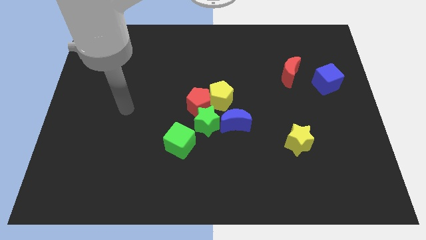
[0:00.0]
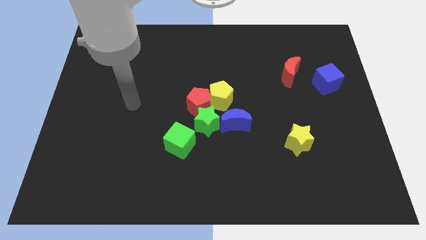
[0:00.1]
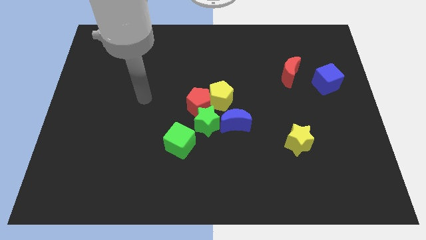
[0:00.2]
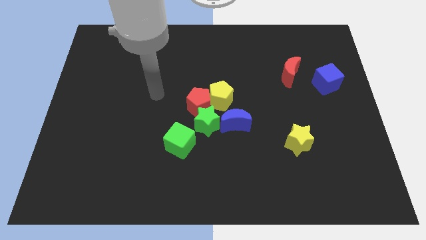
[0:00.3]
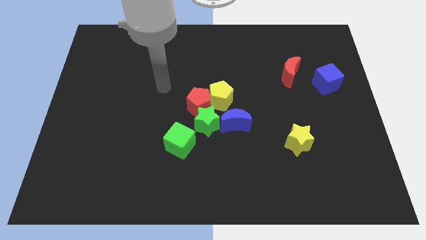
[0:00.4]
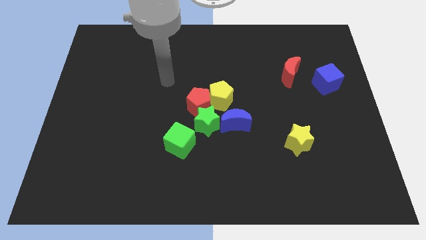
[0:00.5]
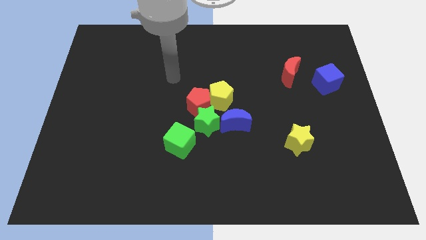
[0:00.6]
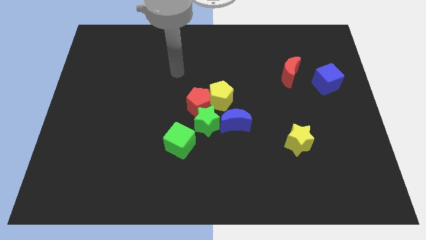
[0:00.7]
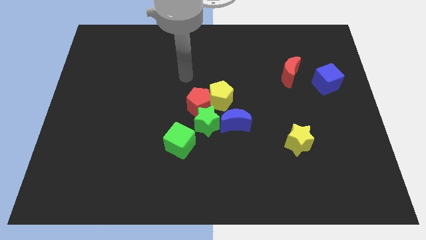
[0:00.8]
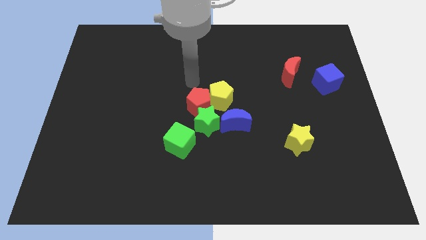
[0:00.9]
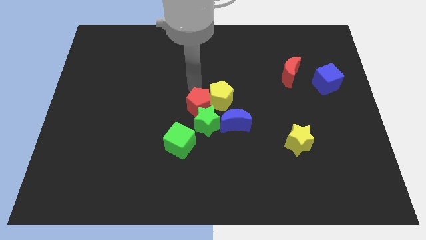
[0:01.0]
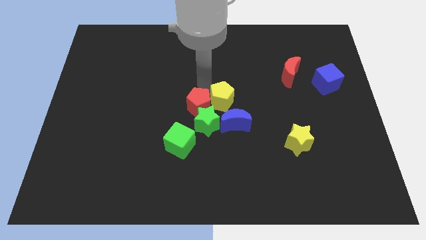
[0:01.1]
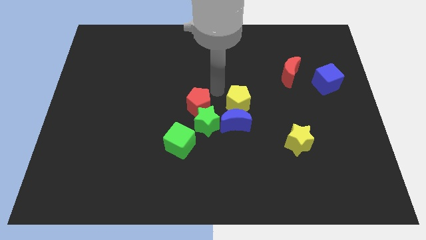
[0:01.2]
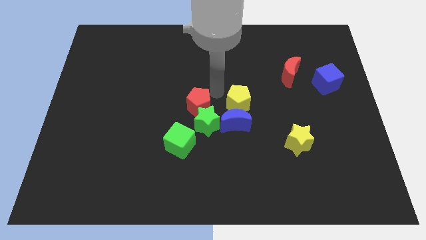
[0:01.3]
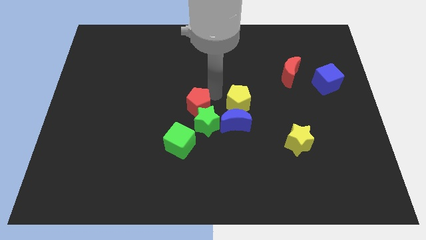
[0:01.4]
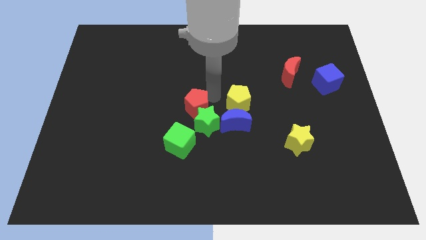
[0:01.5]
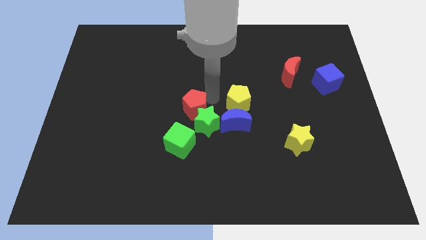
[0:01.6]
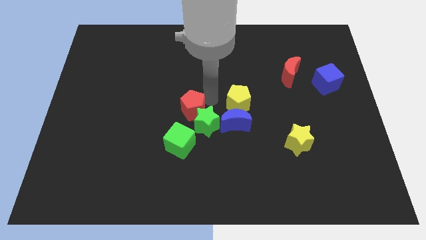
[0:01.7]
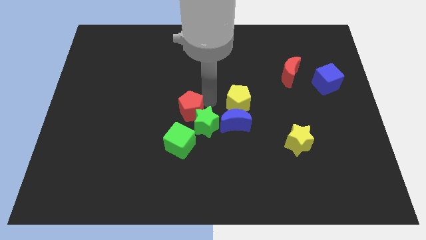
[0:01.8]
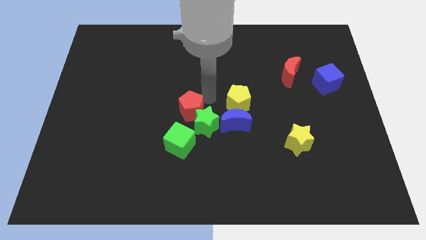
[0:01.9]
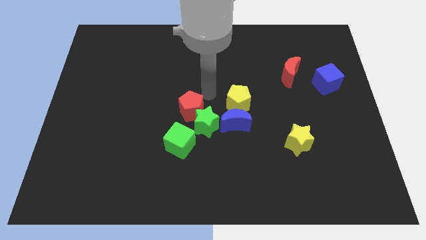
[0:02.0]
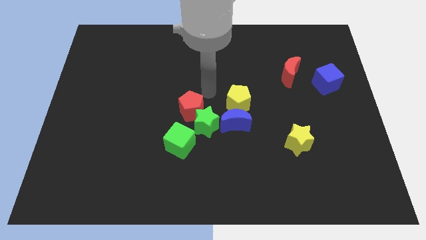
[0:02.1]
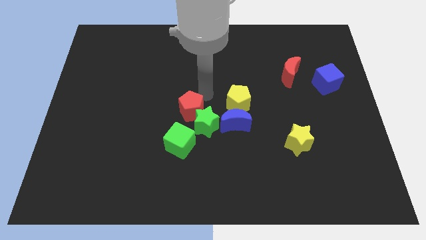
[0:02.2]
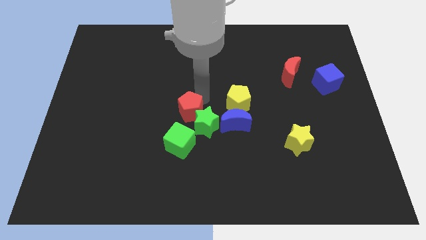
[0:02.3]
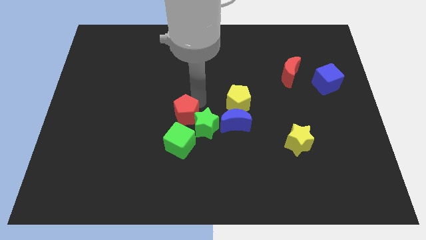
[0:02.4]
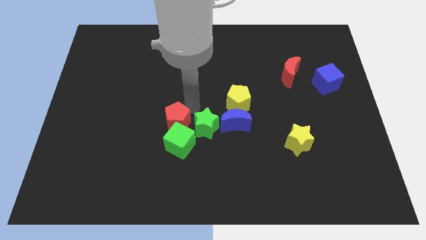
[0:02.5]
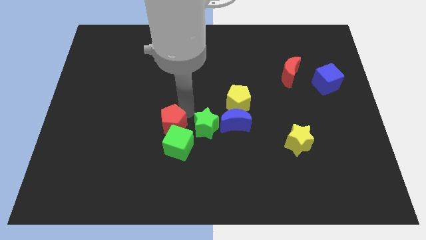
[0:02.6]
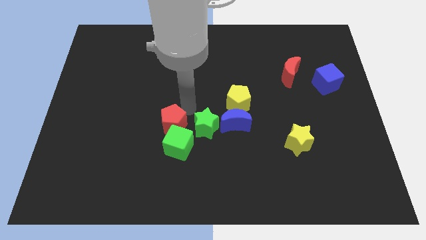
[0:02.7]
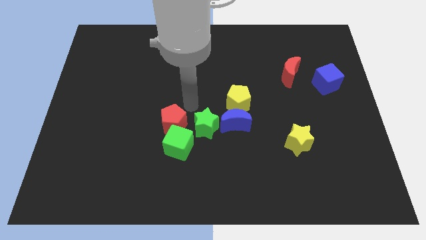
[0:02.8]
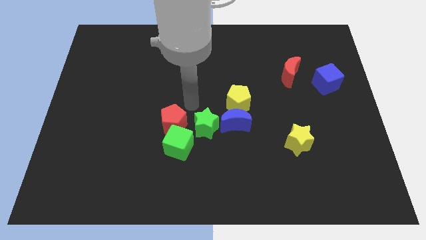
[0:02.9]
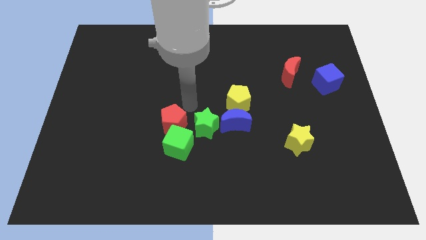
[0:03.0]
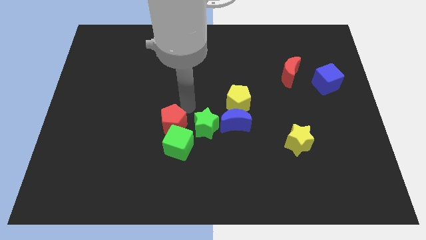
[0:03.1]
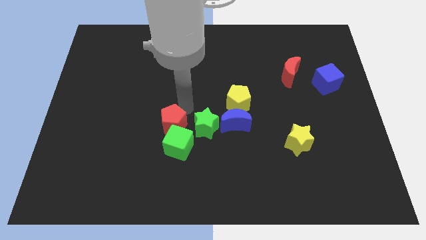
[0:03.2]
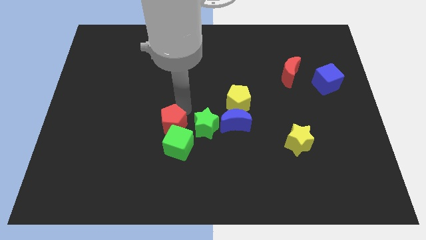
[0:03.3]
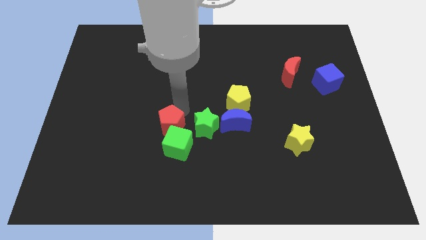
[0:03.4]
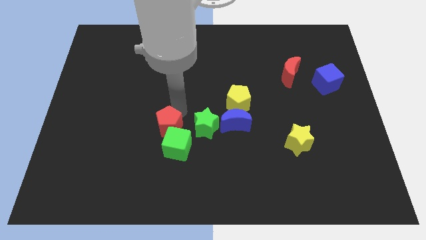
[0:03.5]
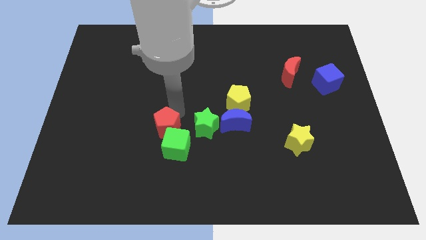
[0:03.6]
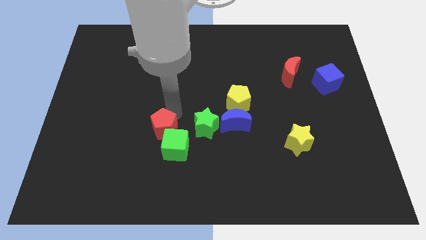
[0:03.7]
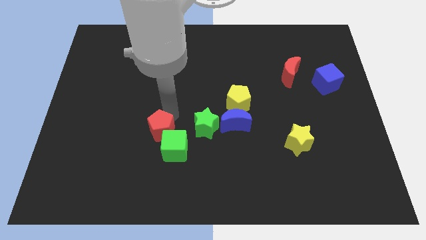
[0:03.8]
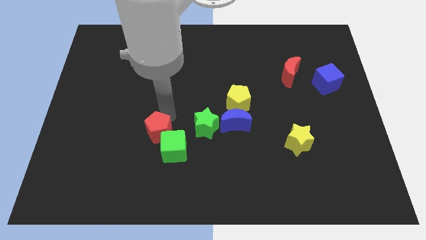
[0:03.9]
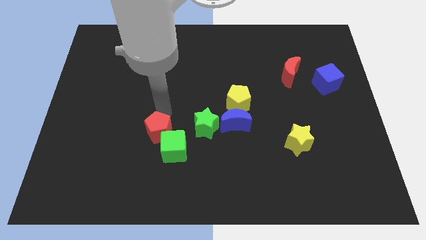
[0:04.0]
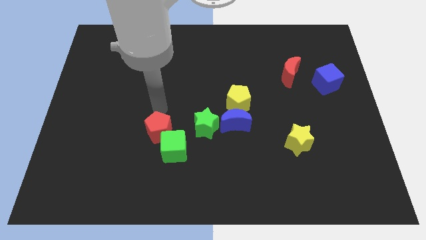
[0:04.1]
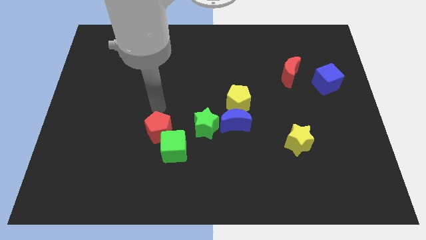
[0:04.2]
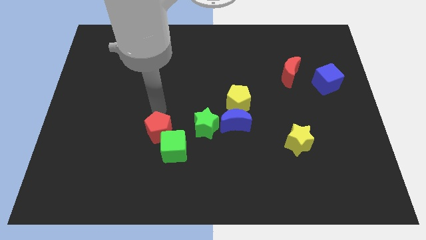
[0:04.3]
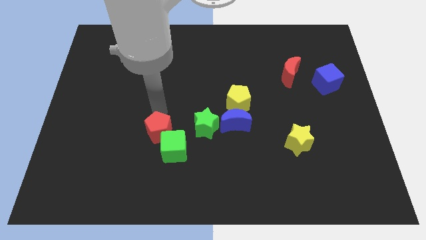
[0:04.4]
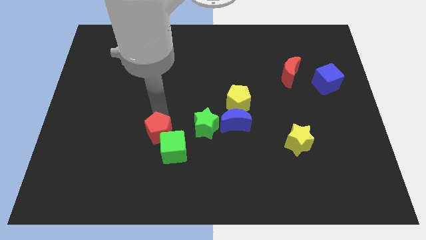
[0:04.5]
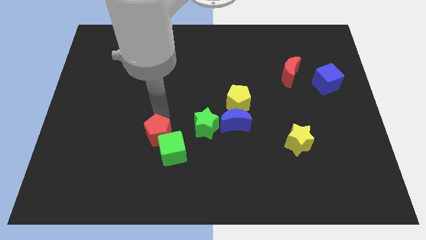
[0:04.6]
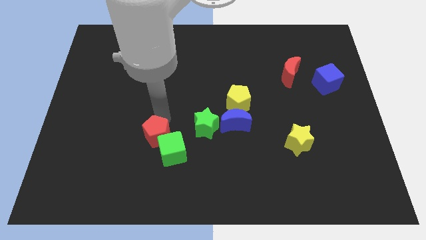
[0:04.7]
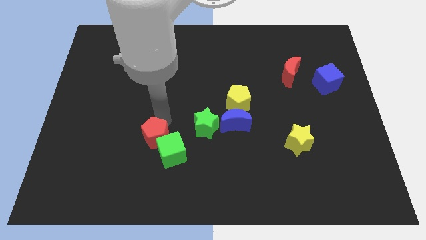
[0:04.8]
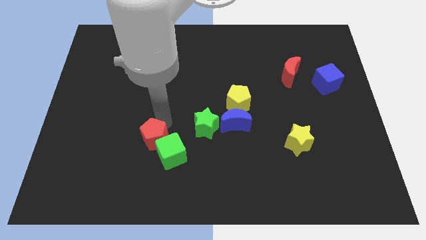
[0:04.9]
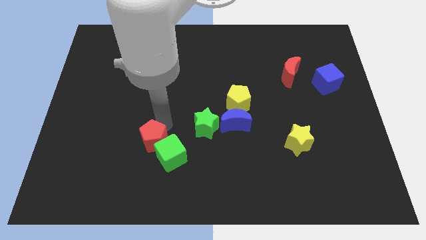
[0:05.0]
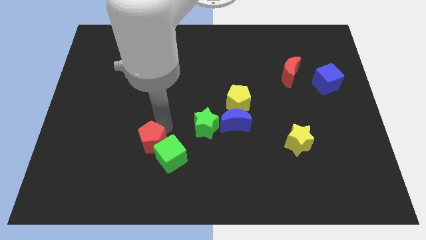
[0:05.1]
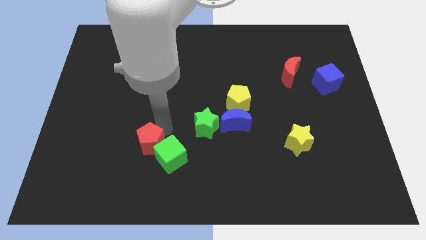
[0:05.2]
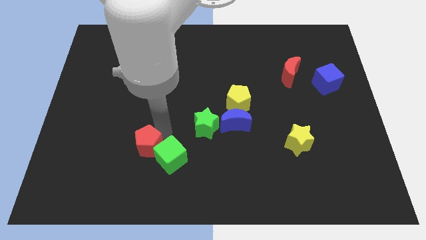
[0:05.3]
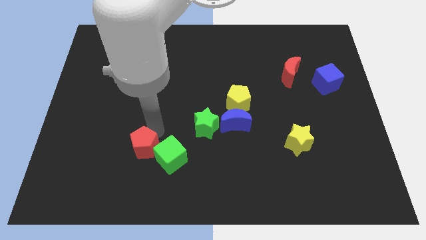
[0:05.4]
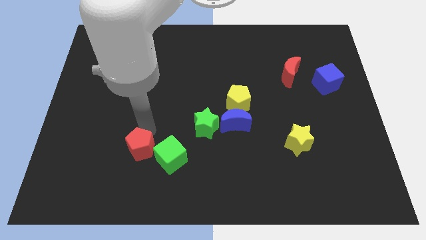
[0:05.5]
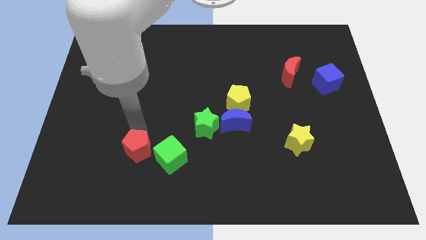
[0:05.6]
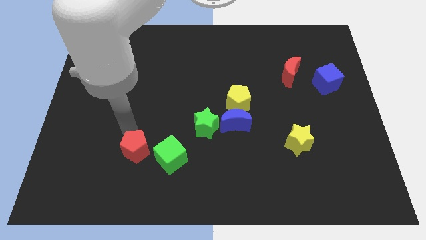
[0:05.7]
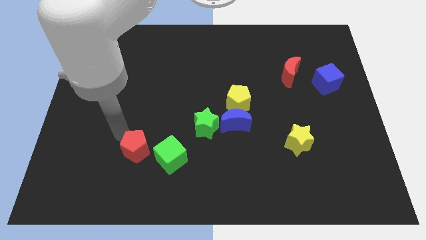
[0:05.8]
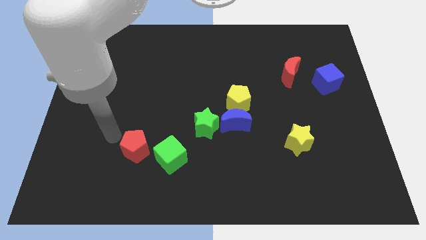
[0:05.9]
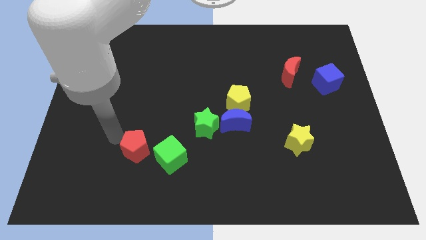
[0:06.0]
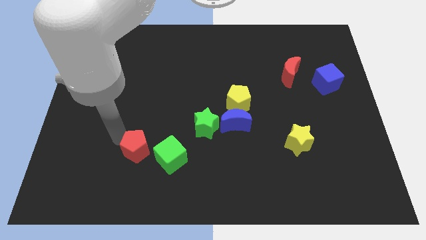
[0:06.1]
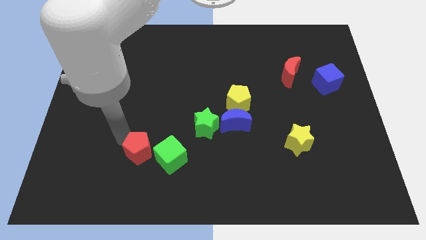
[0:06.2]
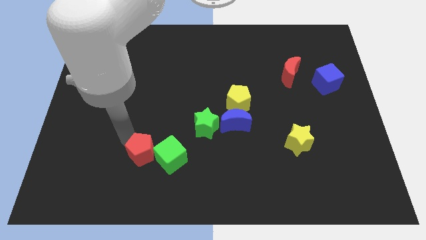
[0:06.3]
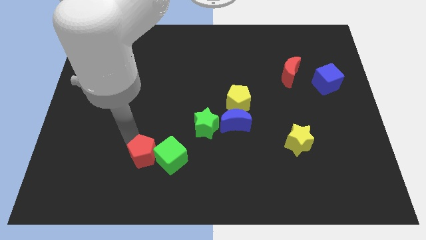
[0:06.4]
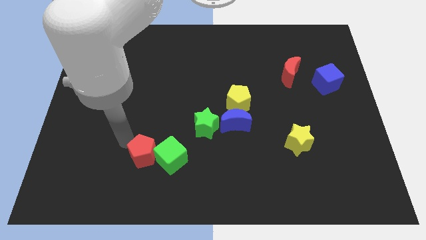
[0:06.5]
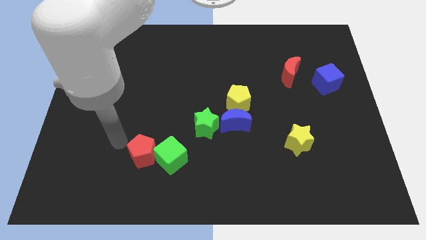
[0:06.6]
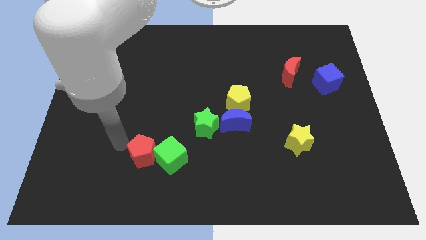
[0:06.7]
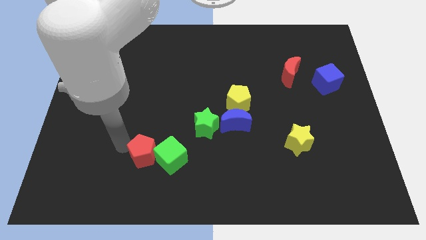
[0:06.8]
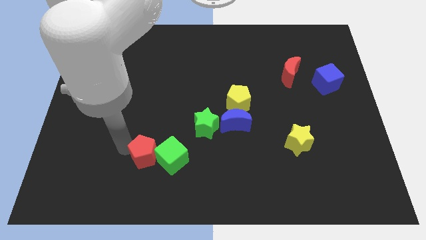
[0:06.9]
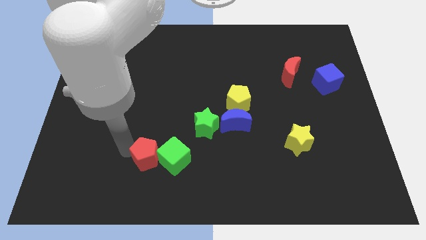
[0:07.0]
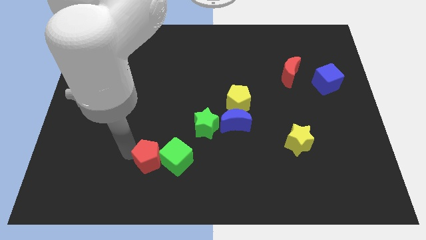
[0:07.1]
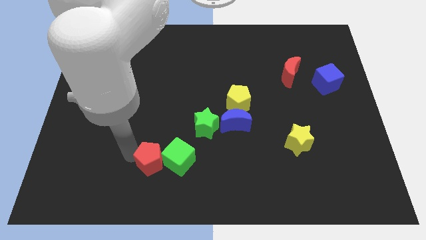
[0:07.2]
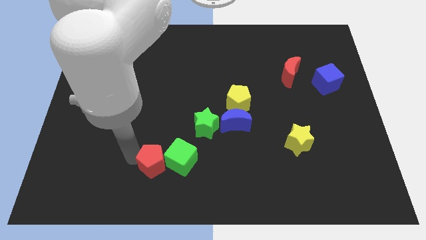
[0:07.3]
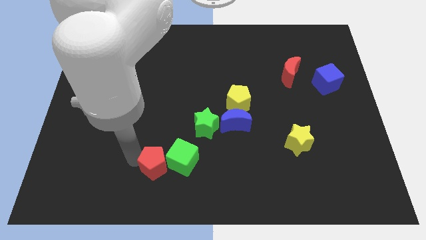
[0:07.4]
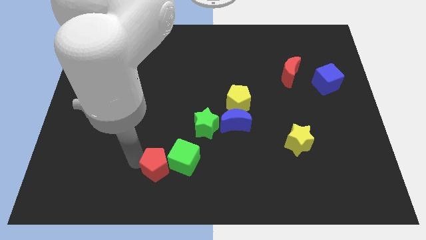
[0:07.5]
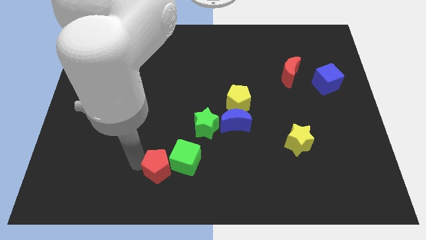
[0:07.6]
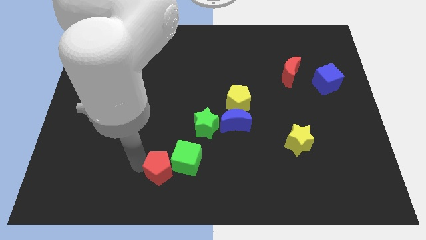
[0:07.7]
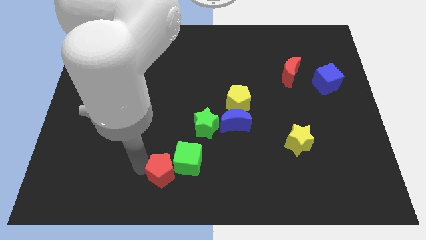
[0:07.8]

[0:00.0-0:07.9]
push the red pentagon to the bottom

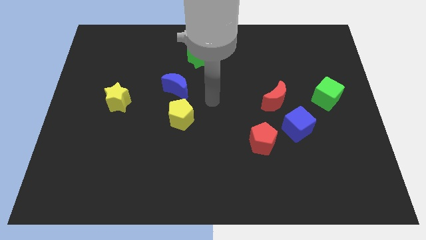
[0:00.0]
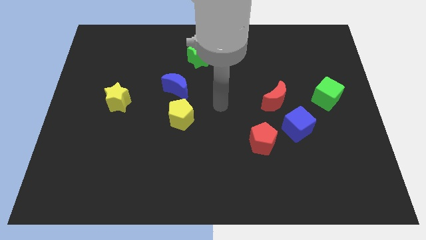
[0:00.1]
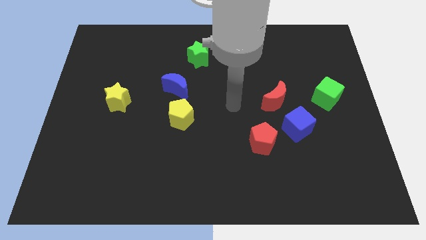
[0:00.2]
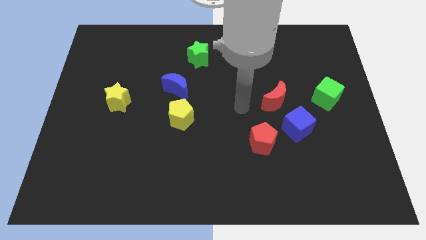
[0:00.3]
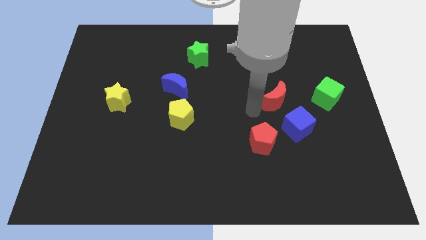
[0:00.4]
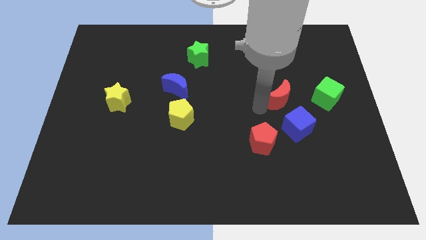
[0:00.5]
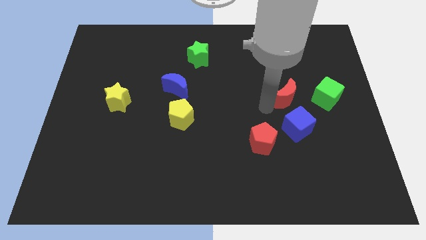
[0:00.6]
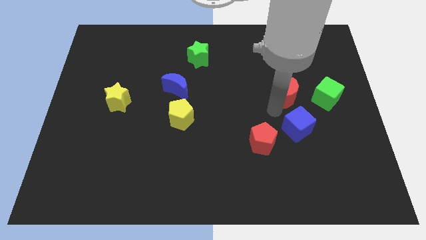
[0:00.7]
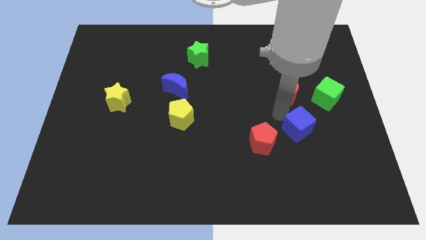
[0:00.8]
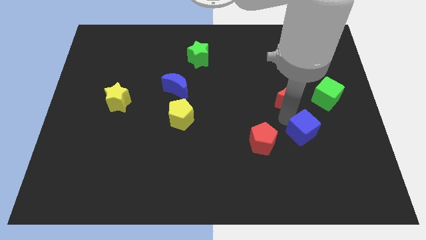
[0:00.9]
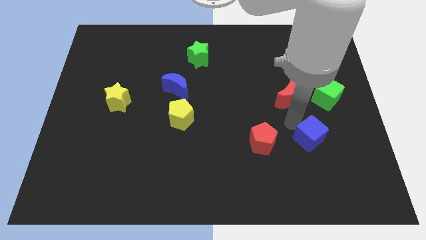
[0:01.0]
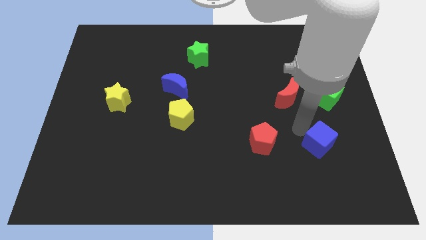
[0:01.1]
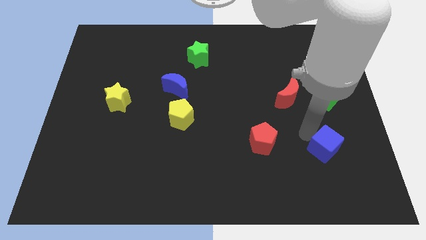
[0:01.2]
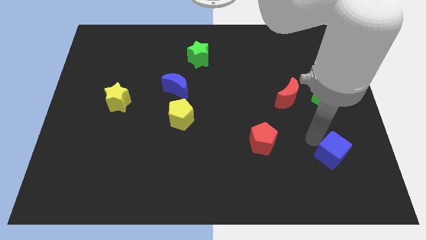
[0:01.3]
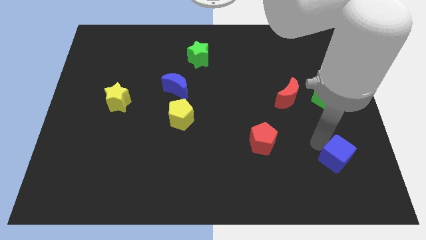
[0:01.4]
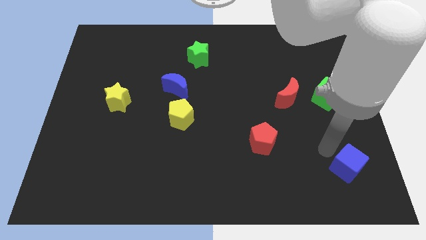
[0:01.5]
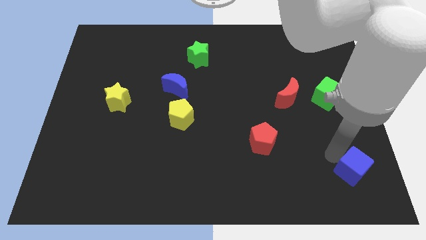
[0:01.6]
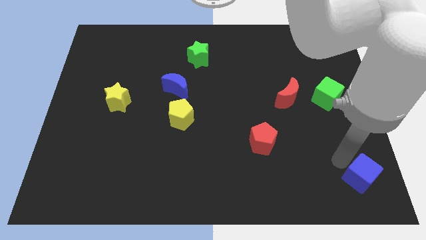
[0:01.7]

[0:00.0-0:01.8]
slide the blue cube to the bottom right
